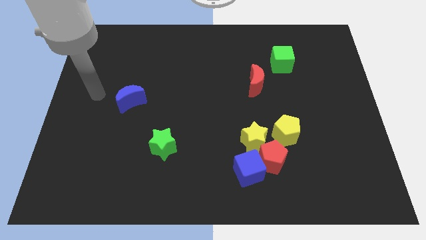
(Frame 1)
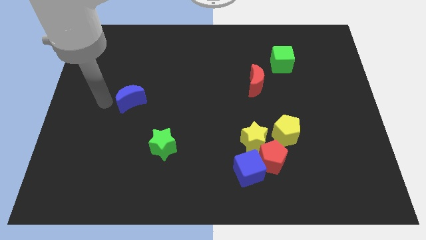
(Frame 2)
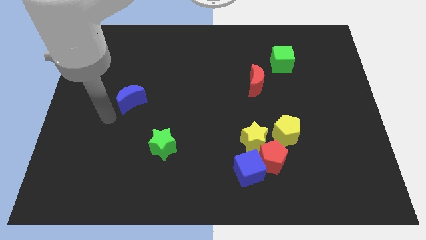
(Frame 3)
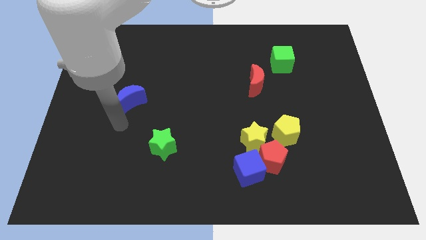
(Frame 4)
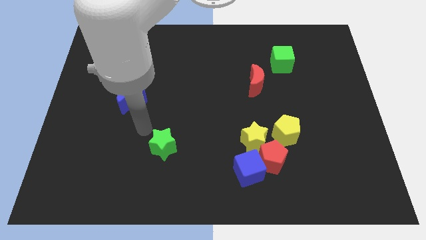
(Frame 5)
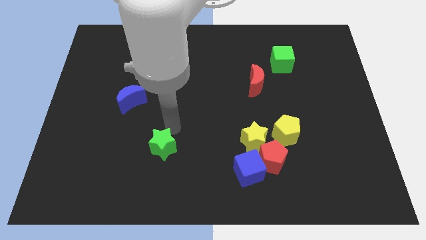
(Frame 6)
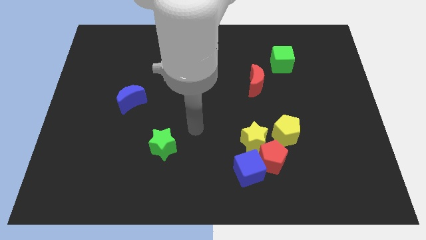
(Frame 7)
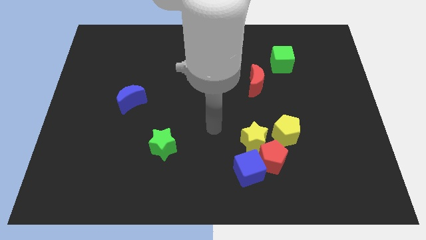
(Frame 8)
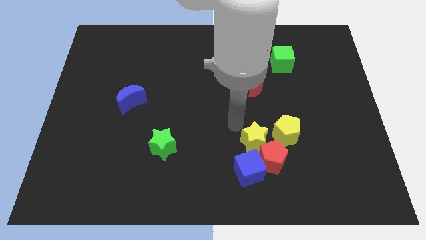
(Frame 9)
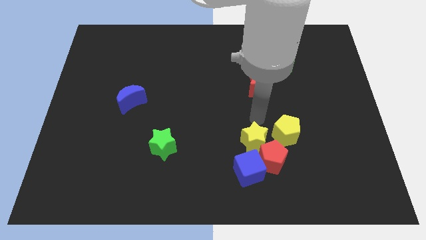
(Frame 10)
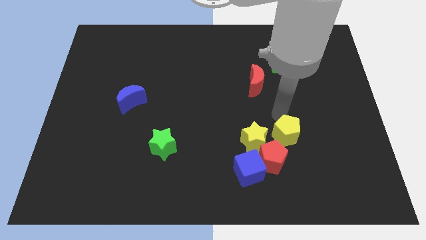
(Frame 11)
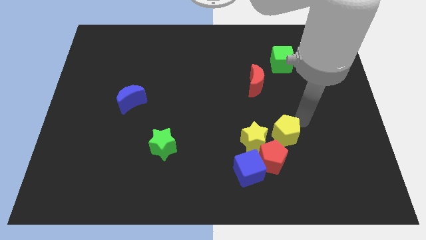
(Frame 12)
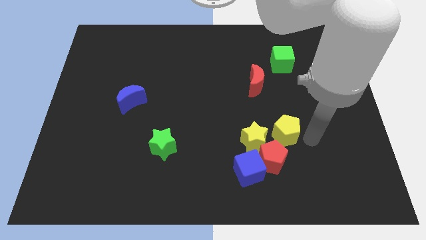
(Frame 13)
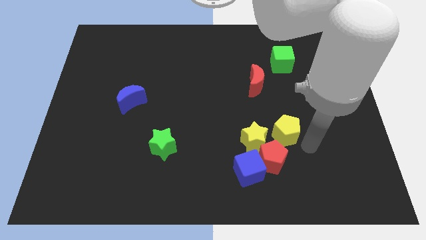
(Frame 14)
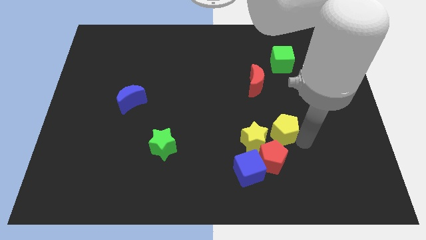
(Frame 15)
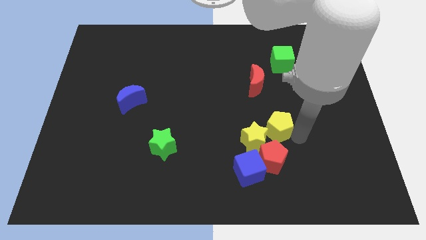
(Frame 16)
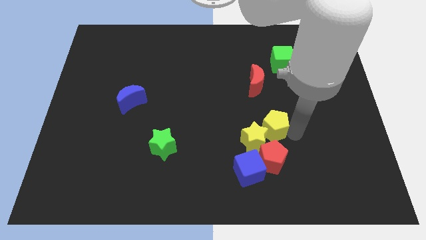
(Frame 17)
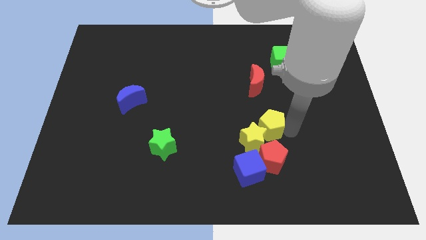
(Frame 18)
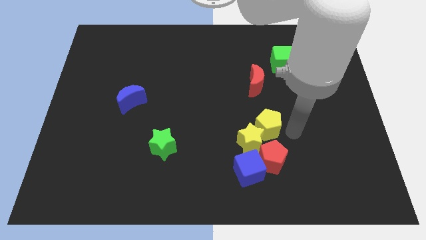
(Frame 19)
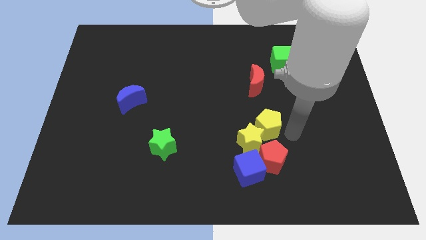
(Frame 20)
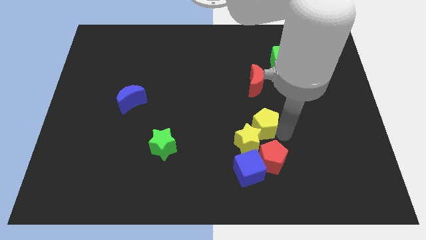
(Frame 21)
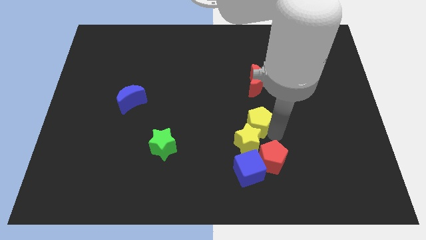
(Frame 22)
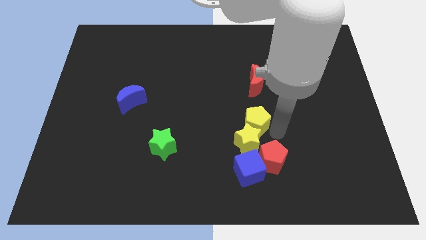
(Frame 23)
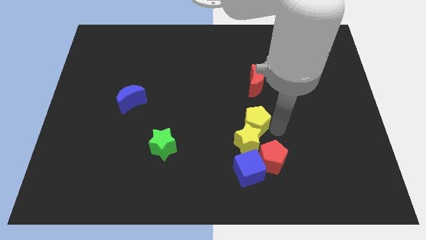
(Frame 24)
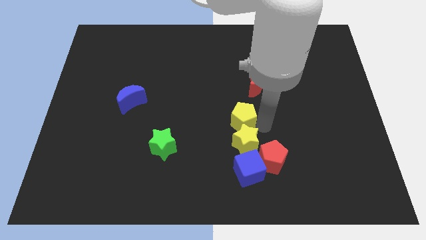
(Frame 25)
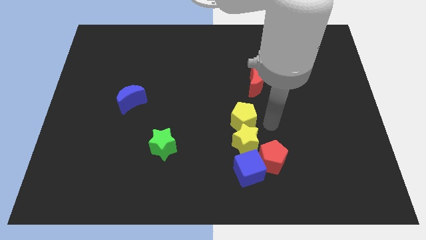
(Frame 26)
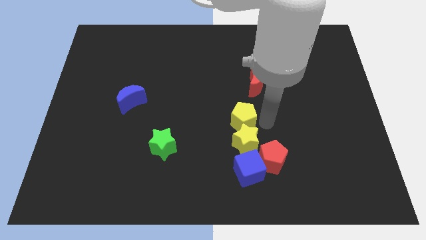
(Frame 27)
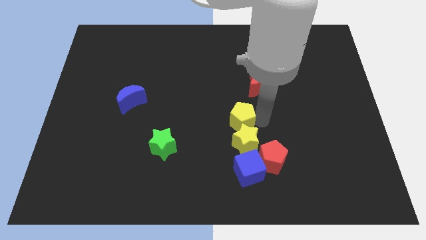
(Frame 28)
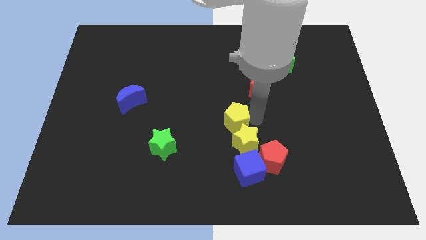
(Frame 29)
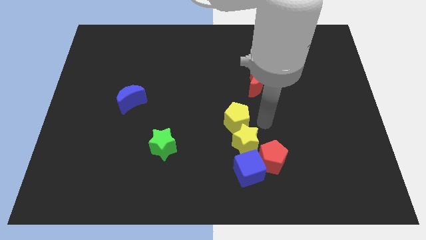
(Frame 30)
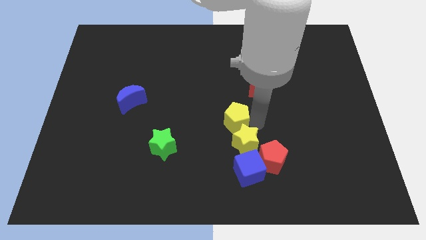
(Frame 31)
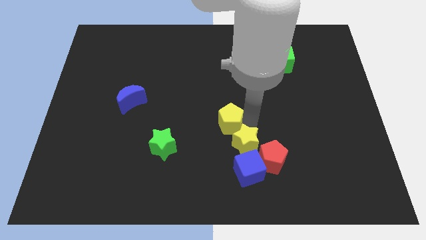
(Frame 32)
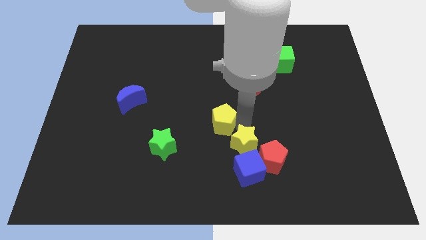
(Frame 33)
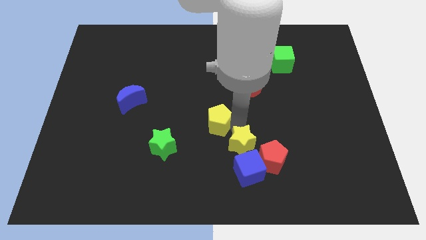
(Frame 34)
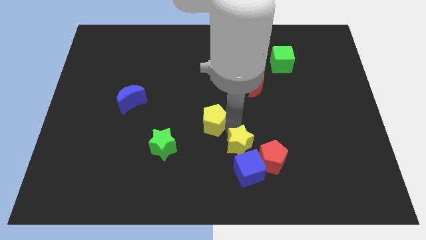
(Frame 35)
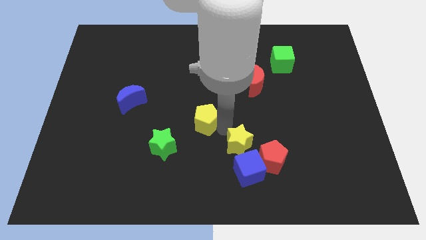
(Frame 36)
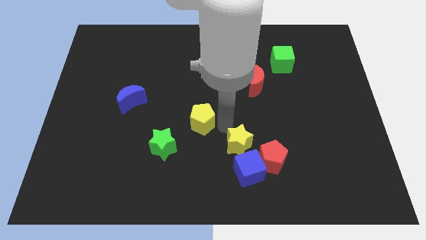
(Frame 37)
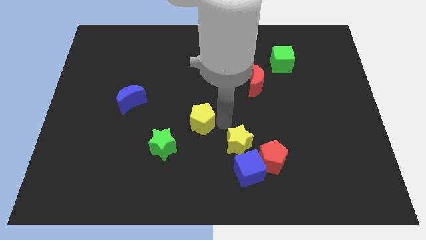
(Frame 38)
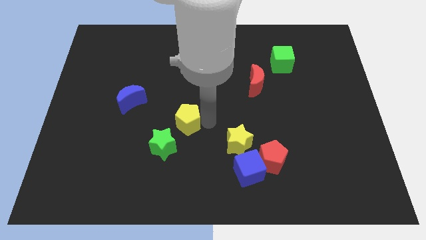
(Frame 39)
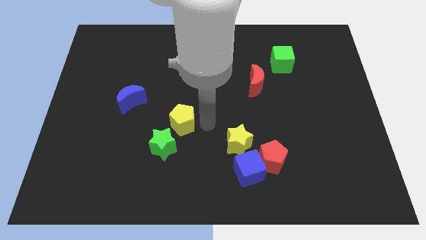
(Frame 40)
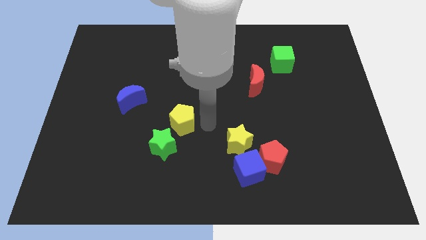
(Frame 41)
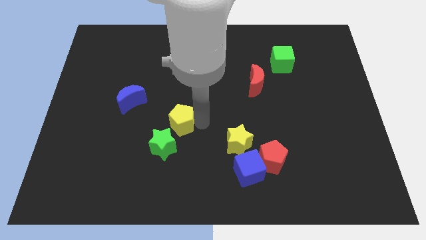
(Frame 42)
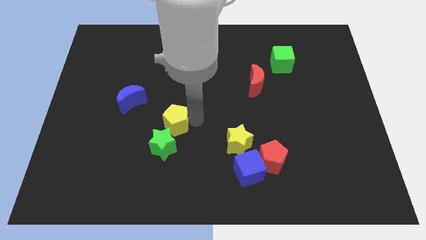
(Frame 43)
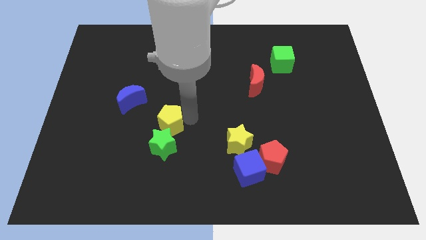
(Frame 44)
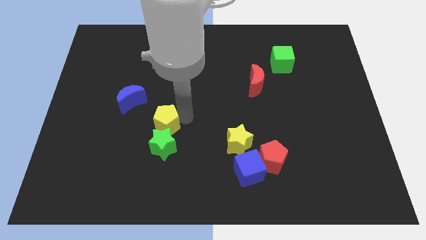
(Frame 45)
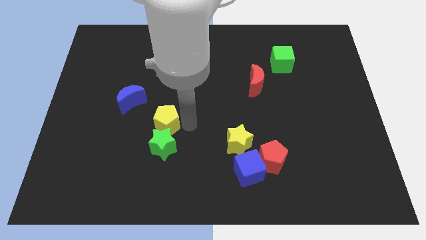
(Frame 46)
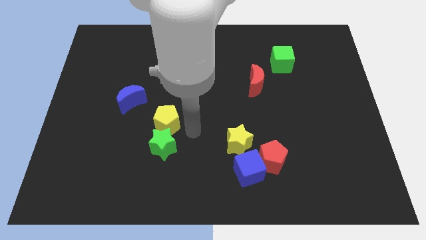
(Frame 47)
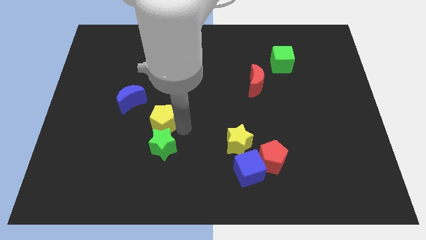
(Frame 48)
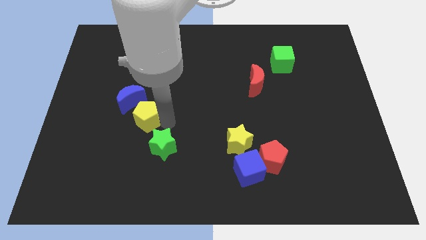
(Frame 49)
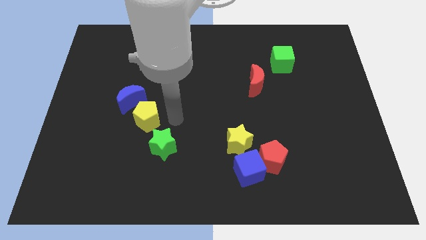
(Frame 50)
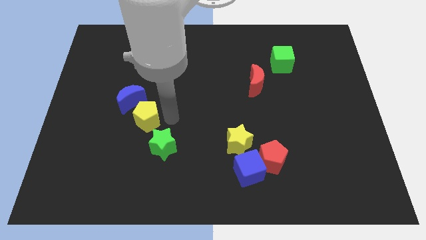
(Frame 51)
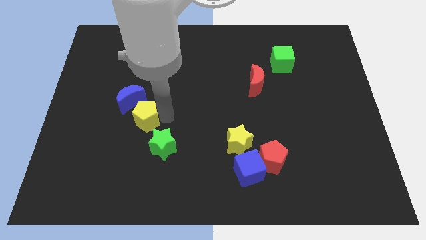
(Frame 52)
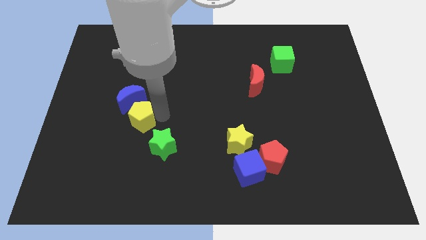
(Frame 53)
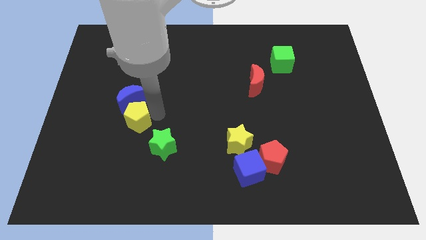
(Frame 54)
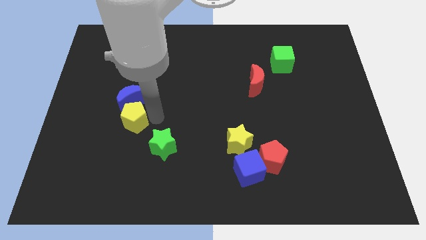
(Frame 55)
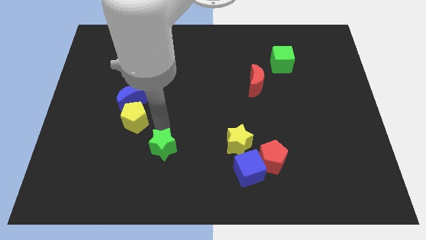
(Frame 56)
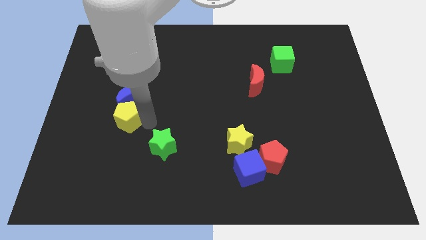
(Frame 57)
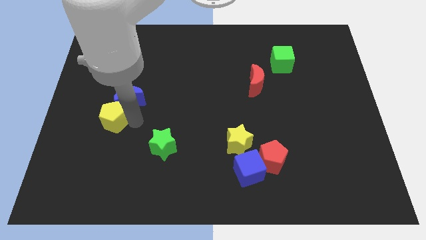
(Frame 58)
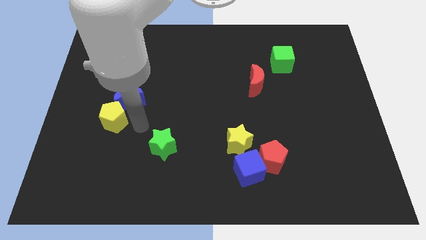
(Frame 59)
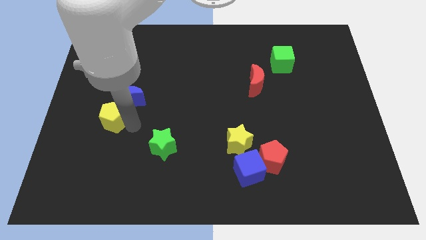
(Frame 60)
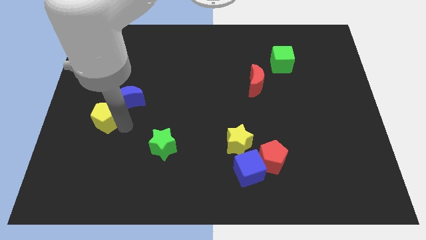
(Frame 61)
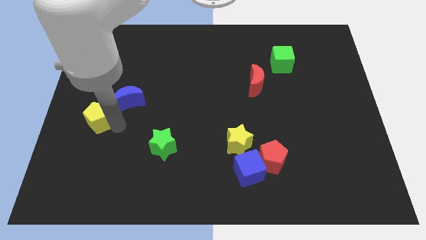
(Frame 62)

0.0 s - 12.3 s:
move the yellow pentagon to the left side of the board
